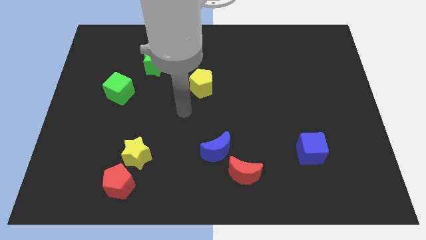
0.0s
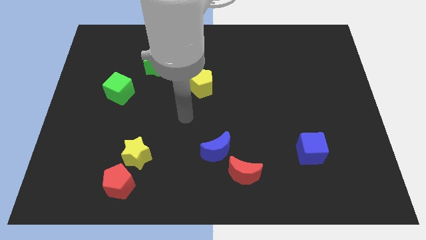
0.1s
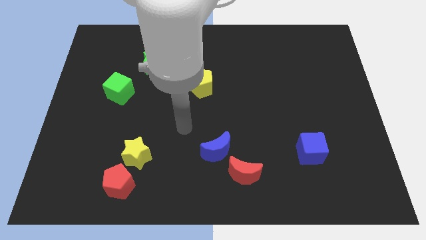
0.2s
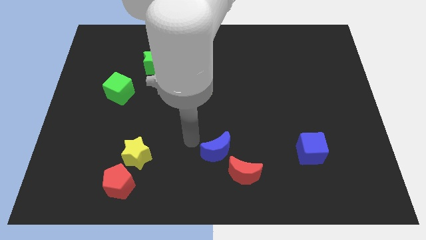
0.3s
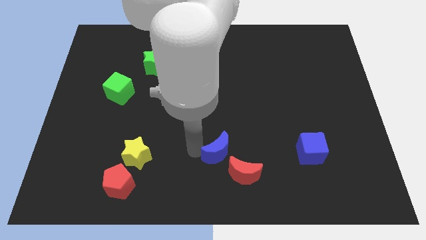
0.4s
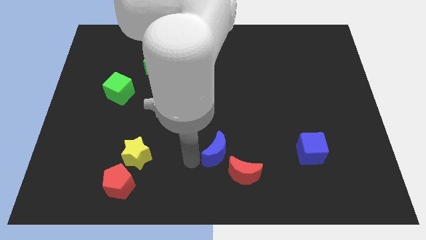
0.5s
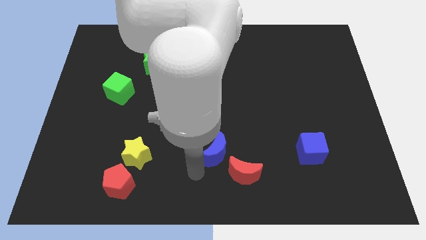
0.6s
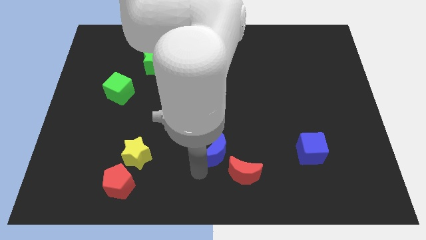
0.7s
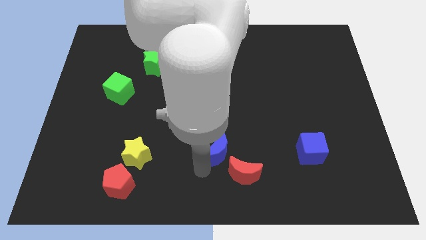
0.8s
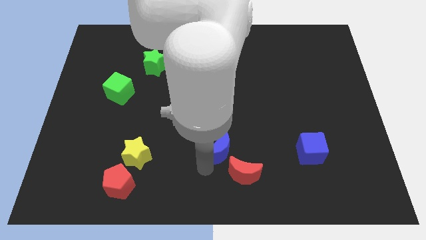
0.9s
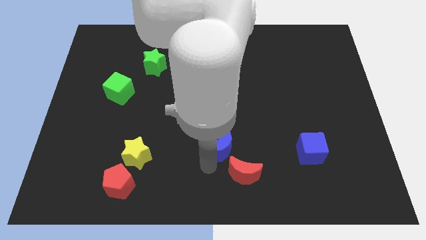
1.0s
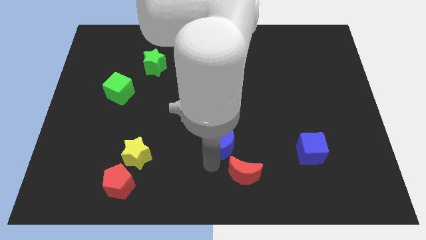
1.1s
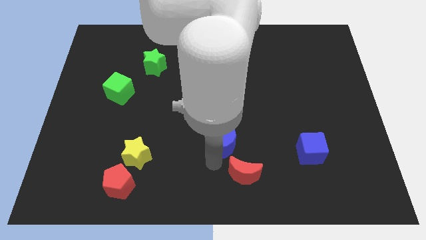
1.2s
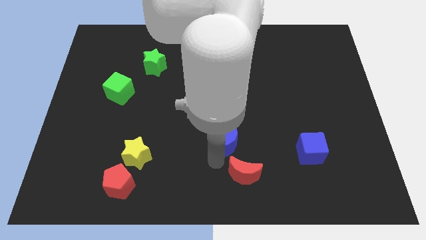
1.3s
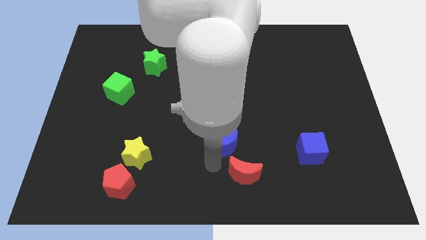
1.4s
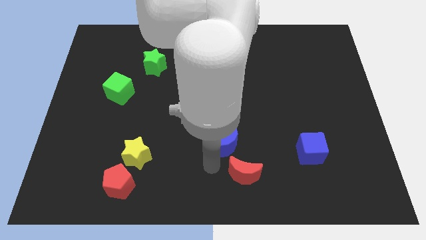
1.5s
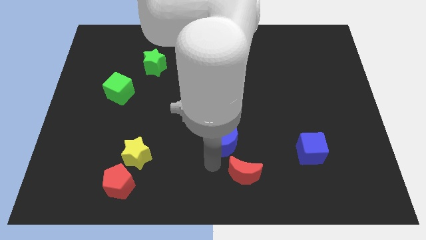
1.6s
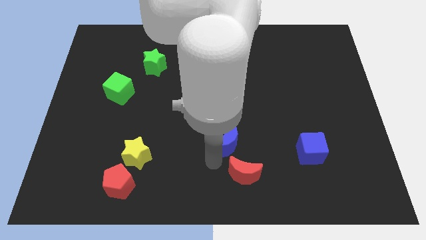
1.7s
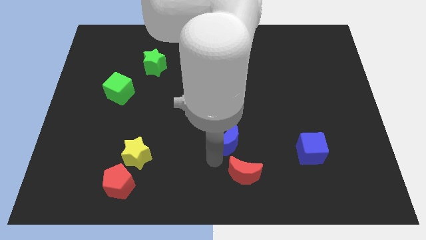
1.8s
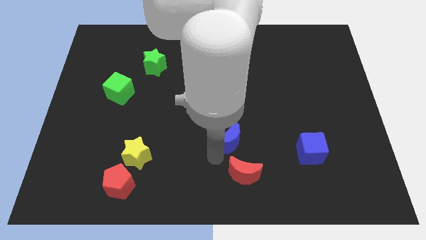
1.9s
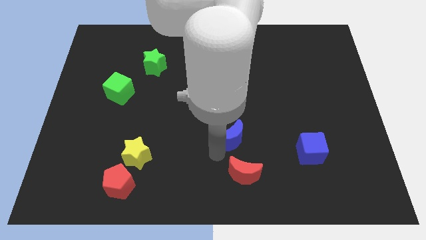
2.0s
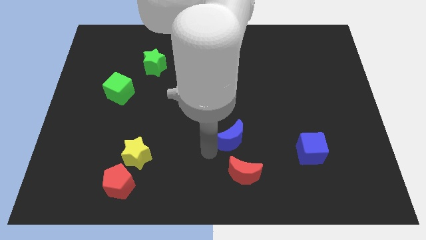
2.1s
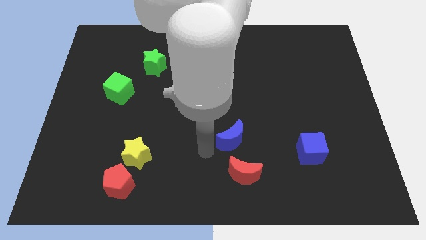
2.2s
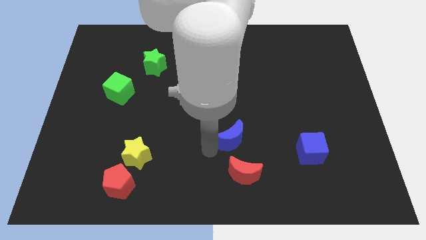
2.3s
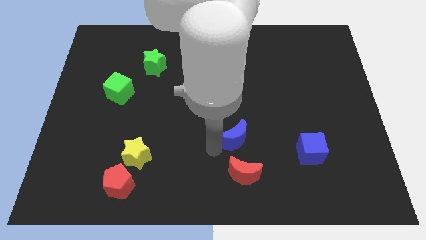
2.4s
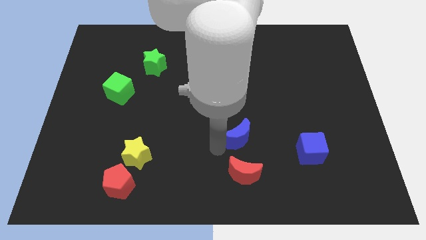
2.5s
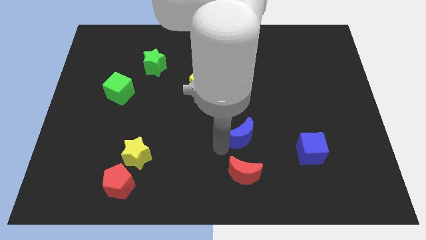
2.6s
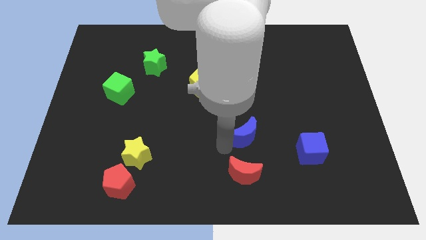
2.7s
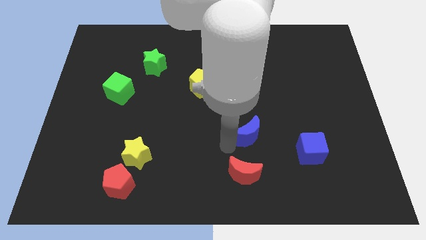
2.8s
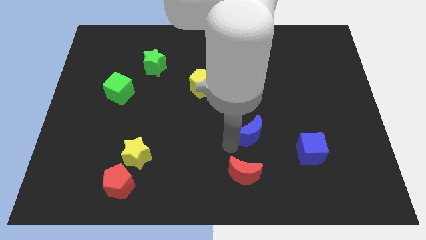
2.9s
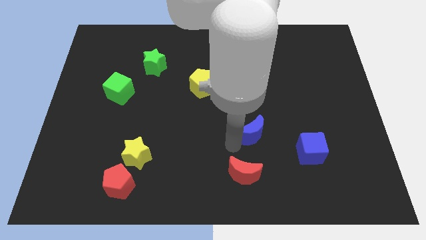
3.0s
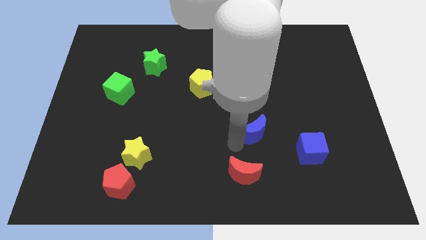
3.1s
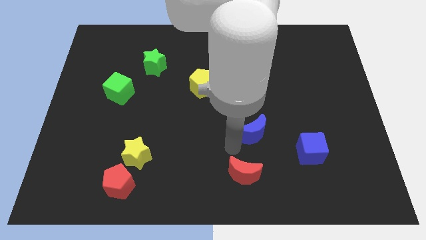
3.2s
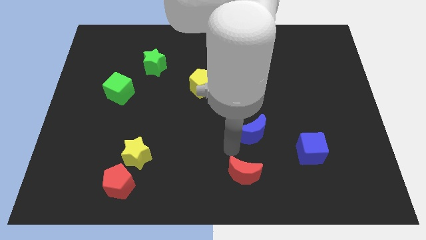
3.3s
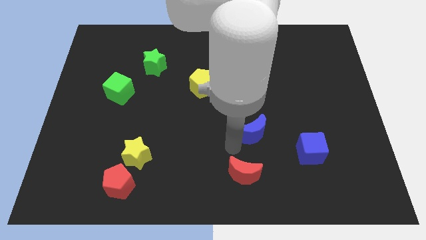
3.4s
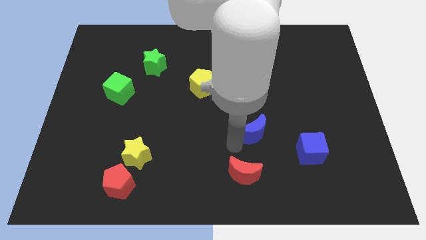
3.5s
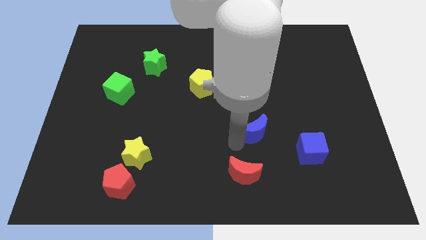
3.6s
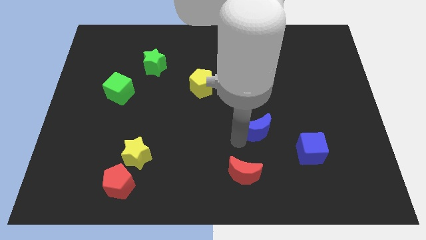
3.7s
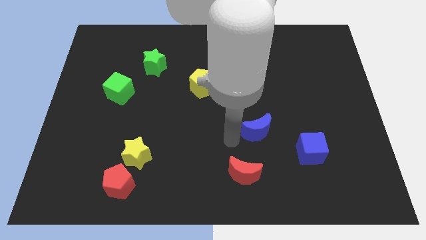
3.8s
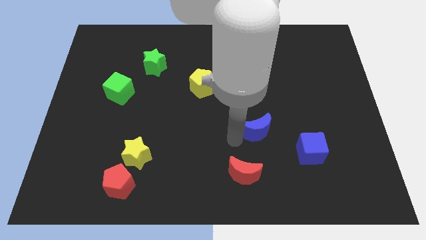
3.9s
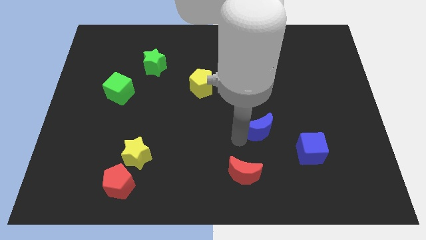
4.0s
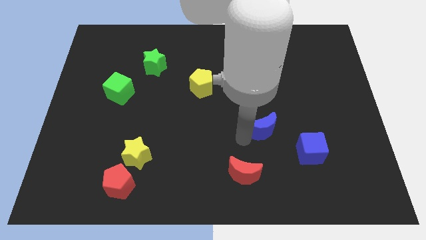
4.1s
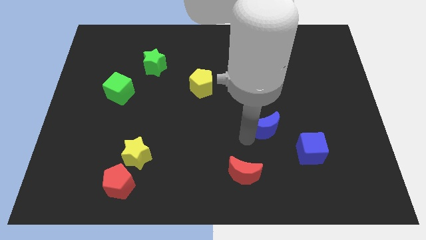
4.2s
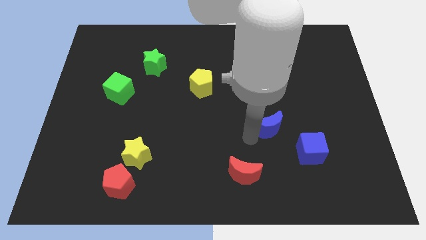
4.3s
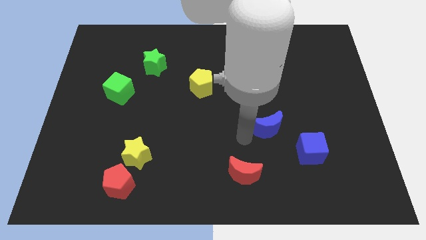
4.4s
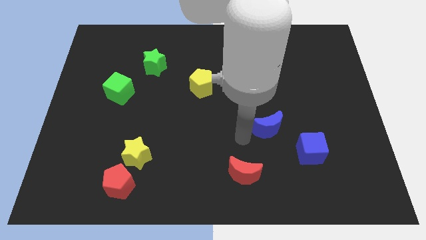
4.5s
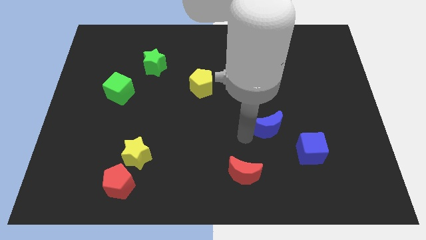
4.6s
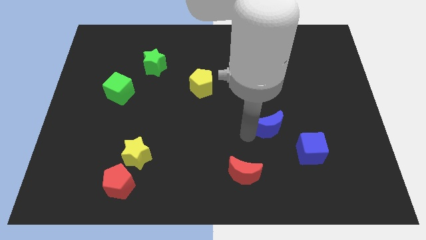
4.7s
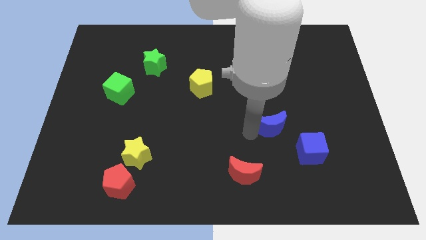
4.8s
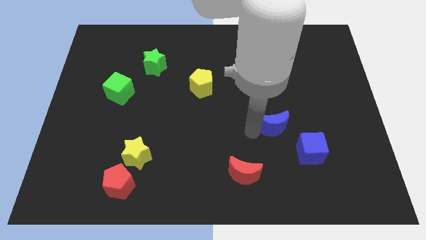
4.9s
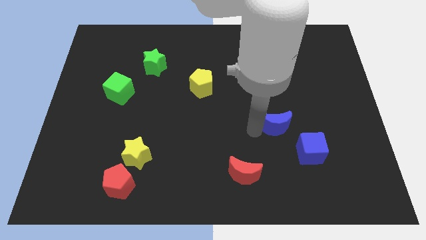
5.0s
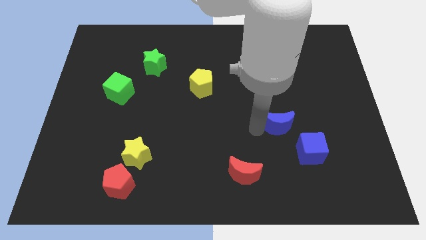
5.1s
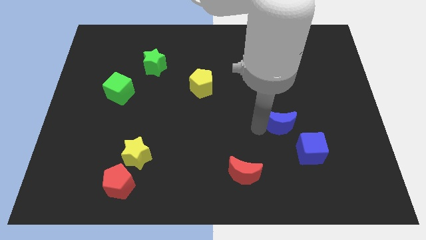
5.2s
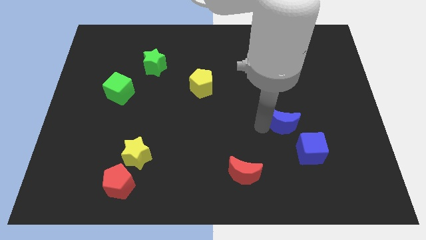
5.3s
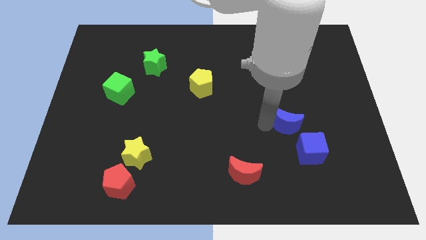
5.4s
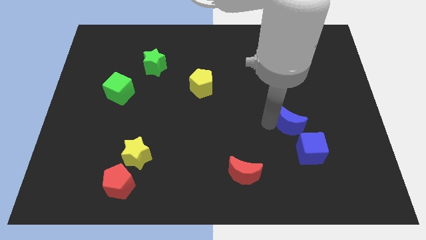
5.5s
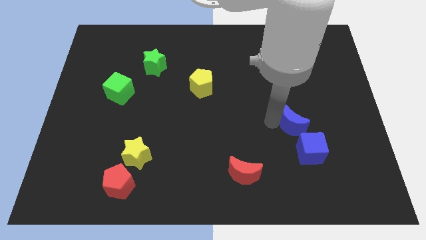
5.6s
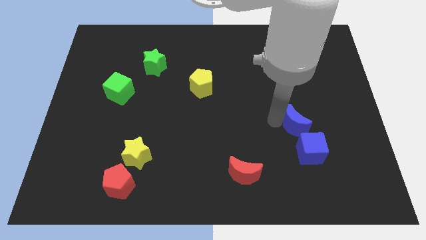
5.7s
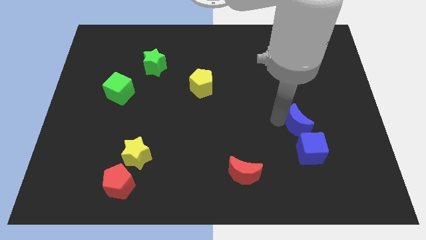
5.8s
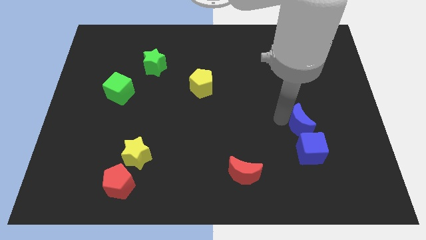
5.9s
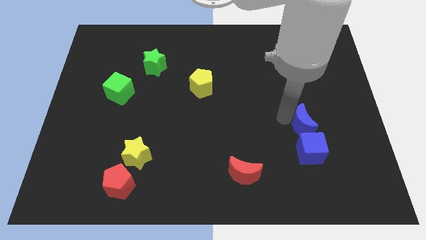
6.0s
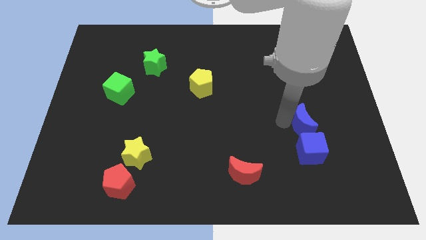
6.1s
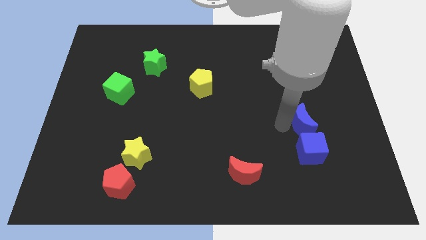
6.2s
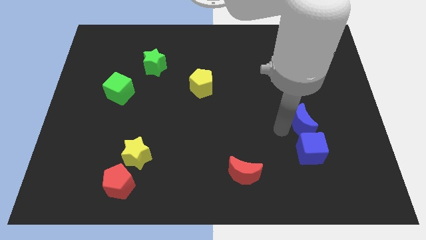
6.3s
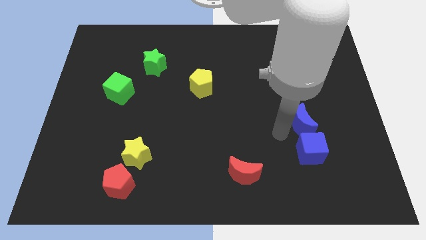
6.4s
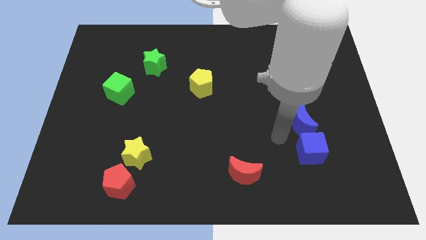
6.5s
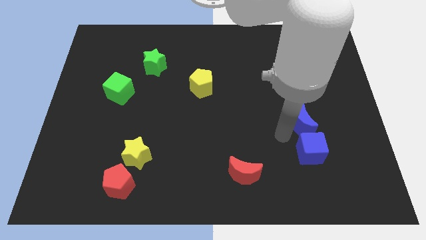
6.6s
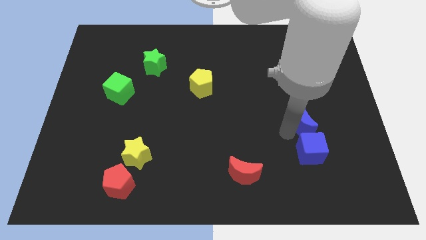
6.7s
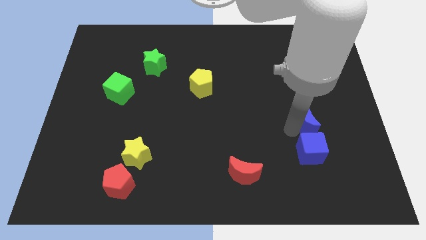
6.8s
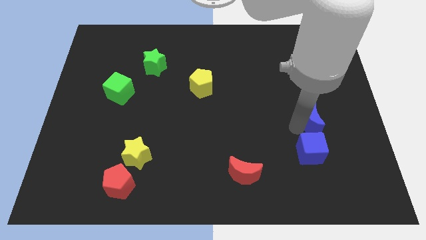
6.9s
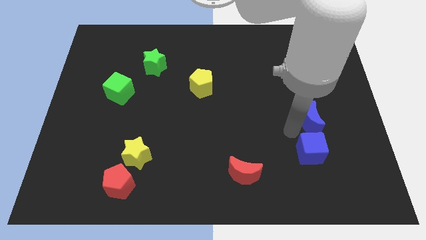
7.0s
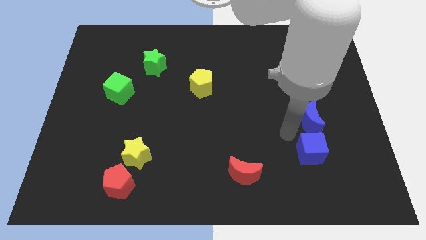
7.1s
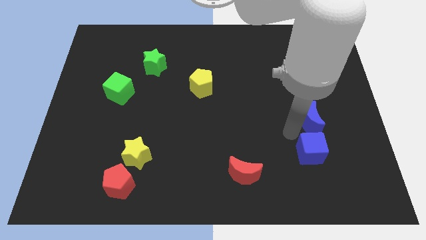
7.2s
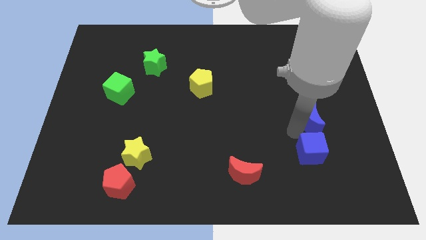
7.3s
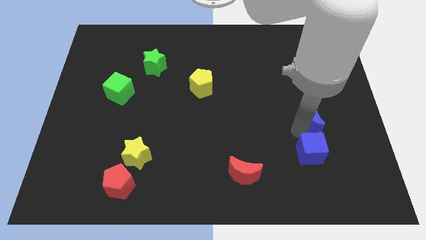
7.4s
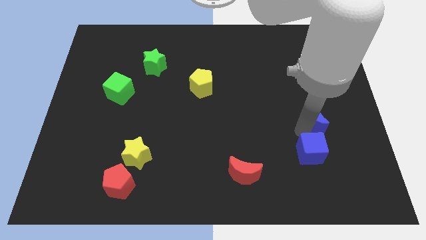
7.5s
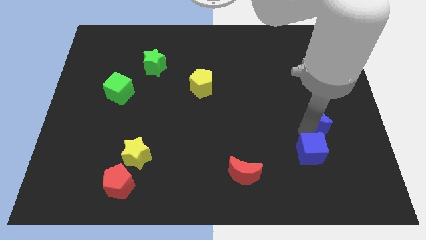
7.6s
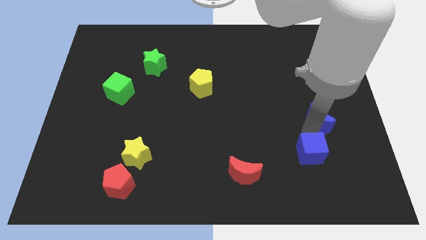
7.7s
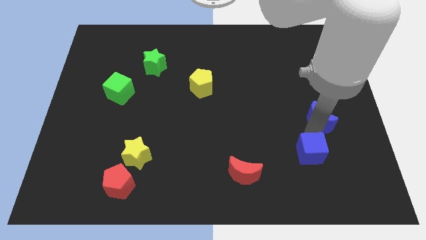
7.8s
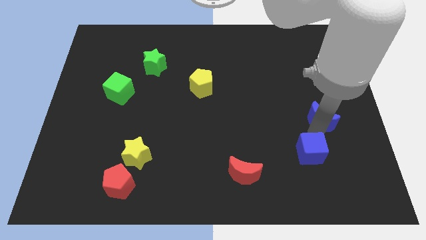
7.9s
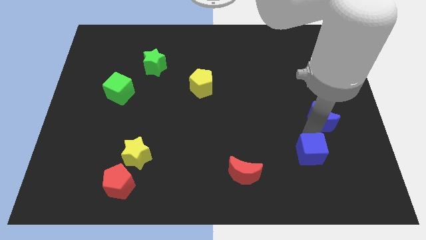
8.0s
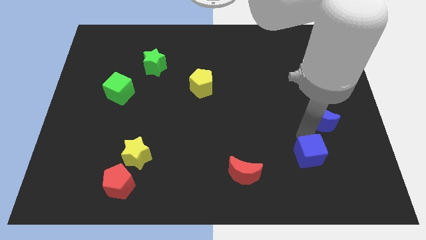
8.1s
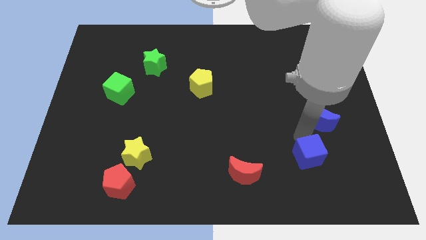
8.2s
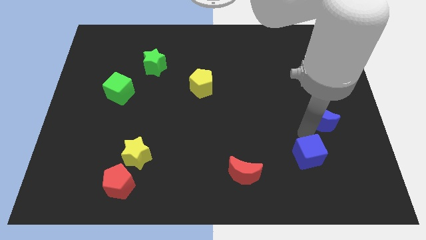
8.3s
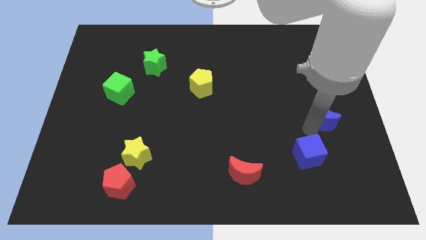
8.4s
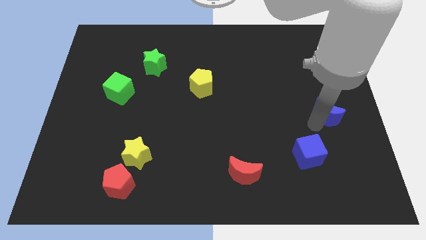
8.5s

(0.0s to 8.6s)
move the blue moon to the right side of the board
